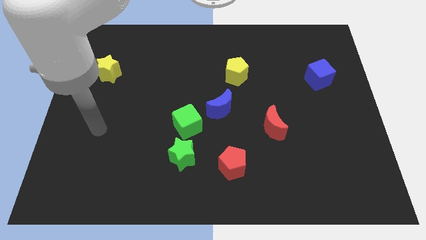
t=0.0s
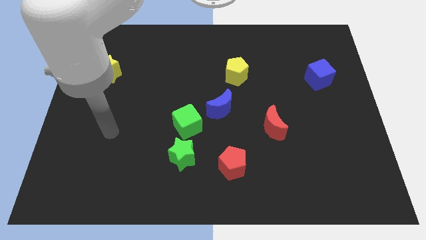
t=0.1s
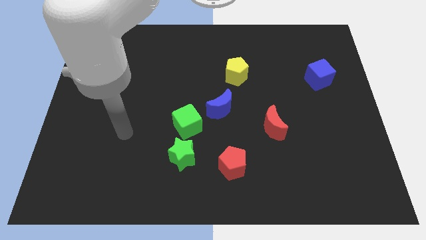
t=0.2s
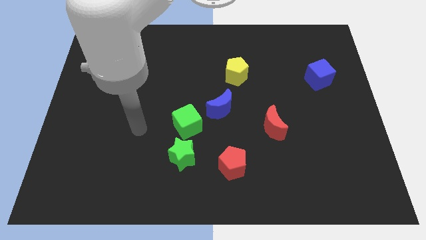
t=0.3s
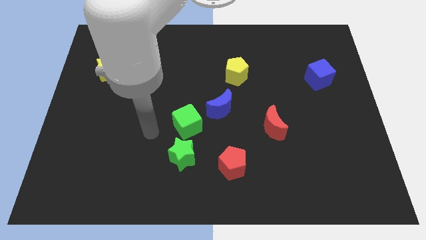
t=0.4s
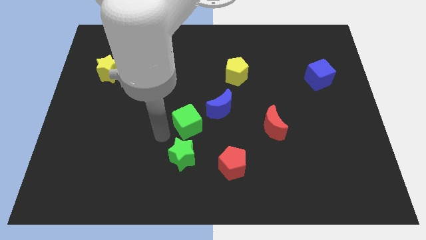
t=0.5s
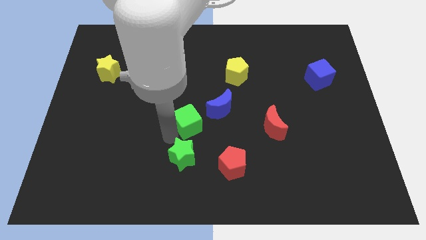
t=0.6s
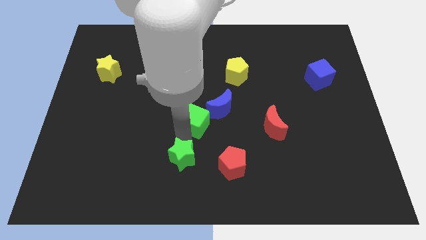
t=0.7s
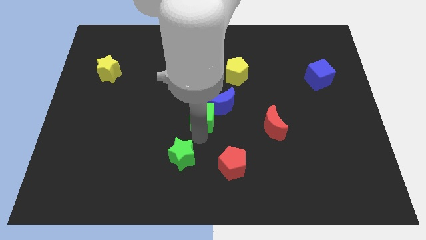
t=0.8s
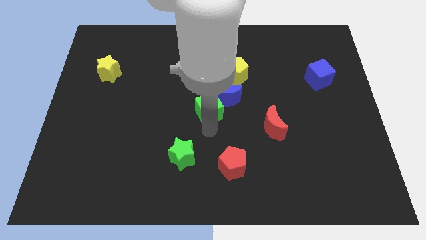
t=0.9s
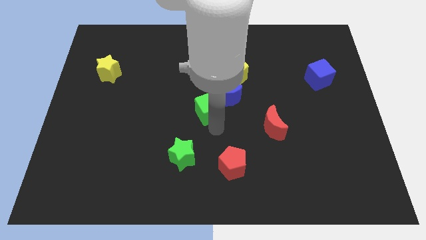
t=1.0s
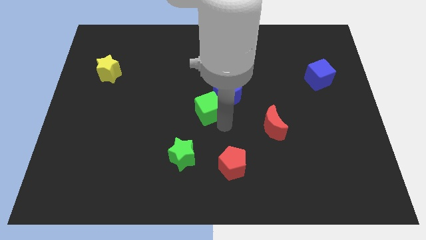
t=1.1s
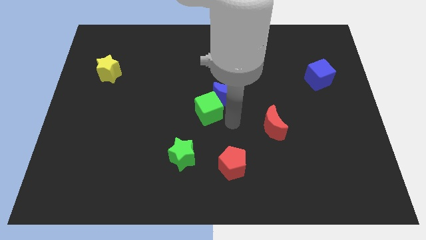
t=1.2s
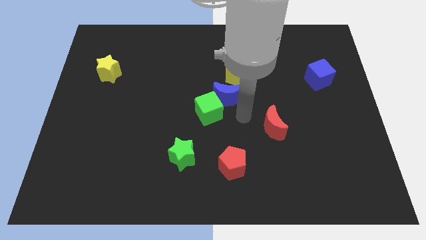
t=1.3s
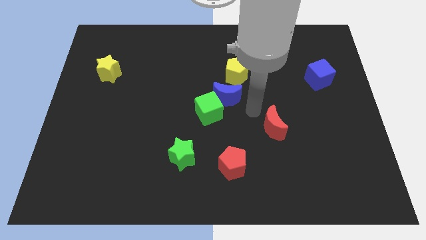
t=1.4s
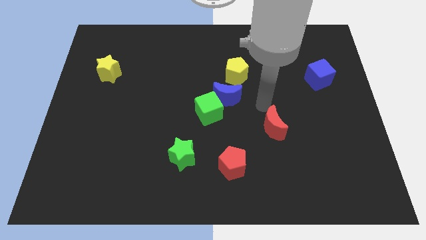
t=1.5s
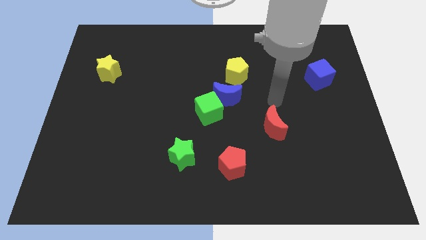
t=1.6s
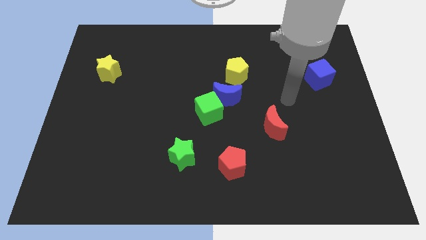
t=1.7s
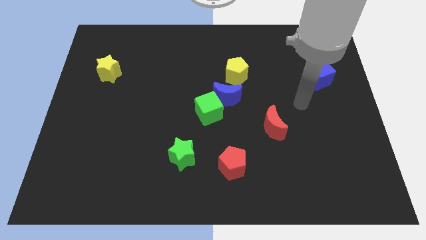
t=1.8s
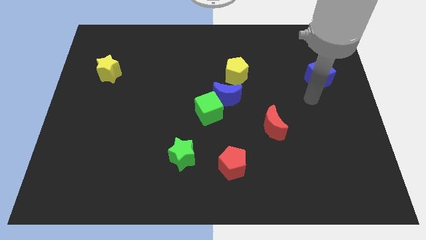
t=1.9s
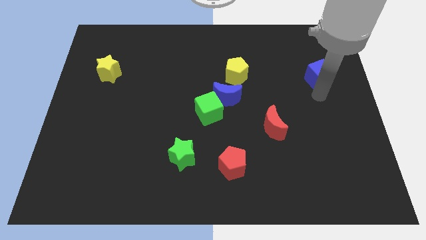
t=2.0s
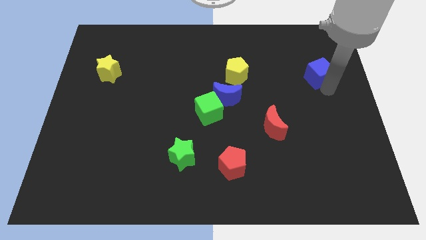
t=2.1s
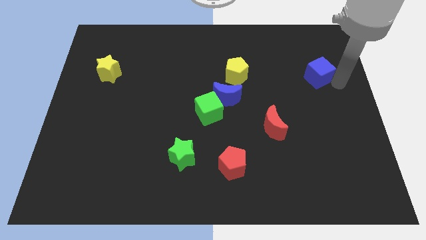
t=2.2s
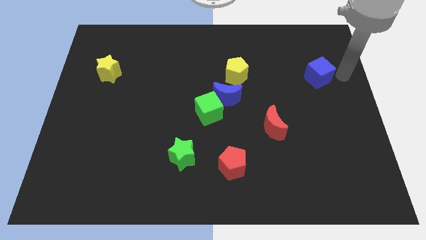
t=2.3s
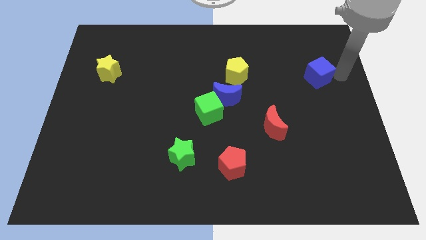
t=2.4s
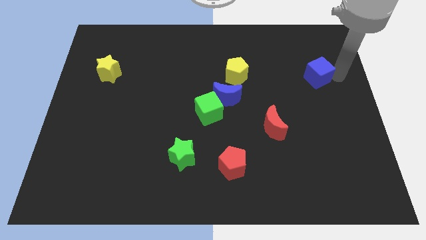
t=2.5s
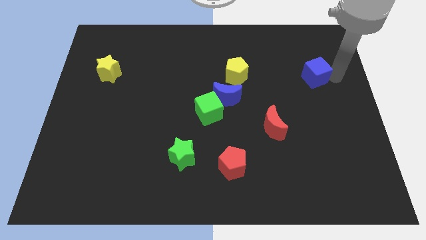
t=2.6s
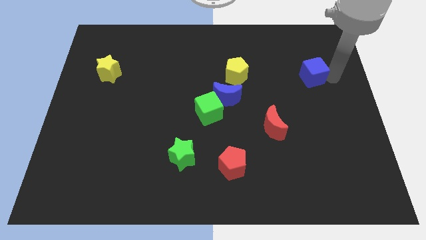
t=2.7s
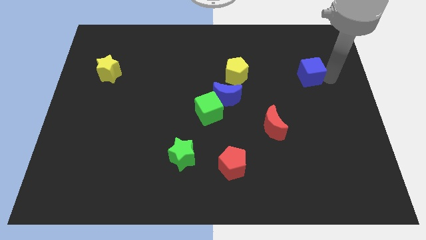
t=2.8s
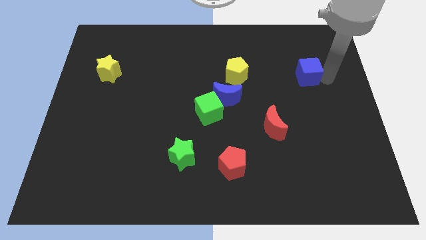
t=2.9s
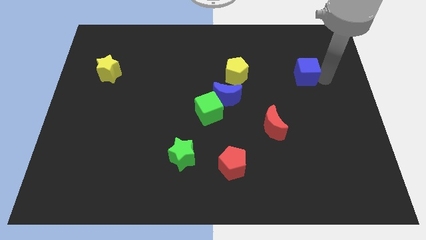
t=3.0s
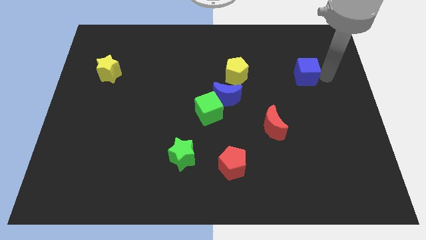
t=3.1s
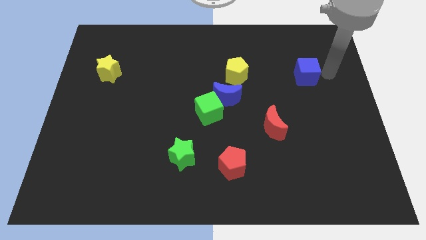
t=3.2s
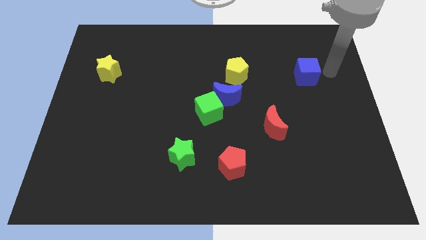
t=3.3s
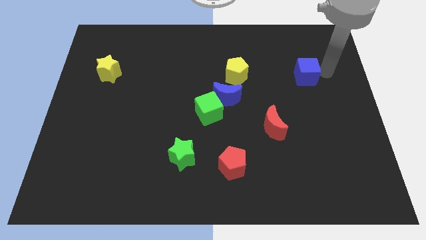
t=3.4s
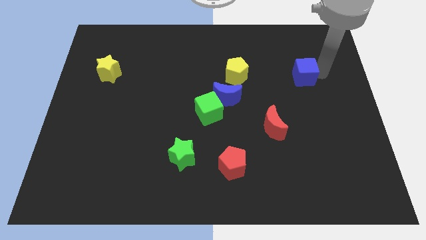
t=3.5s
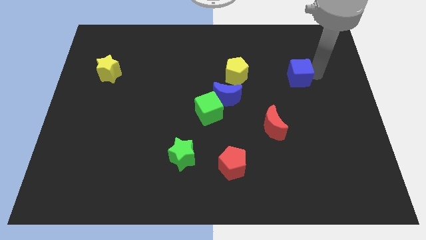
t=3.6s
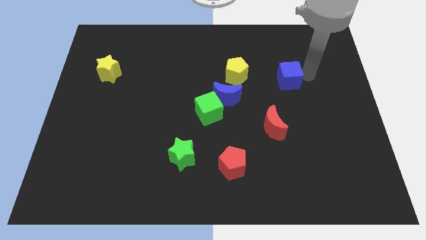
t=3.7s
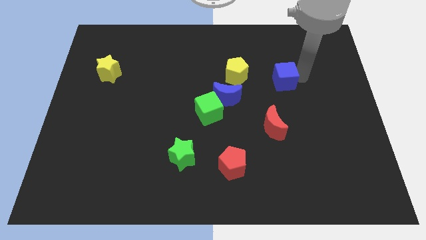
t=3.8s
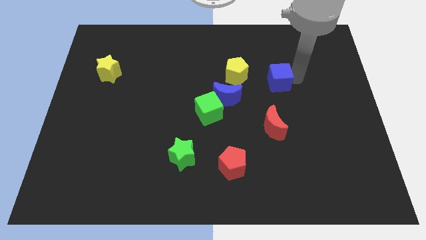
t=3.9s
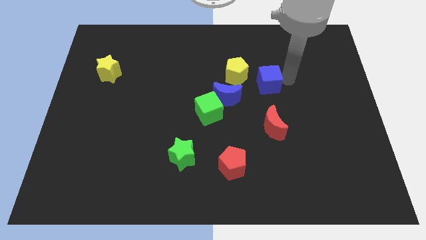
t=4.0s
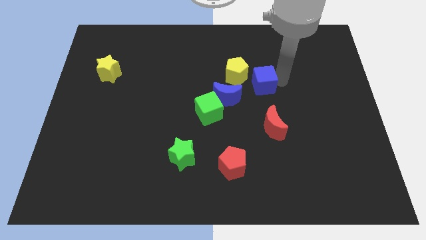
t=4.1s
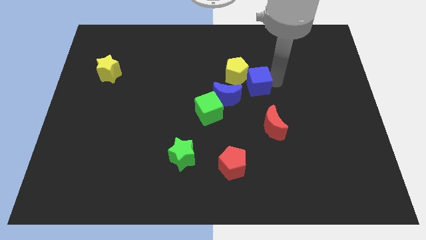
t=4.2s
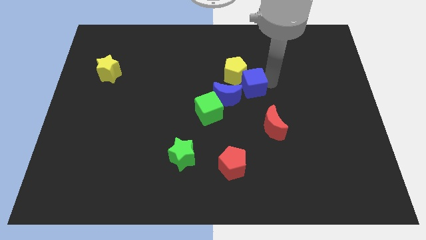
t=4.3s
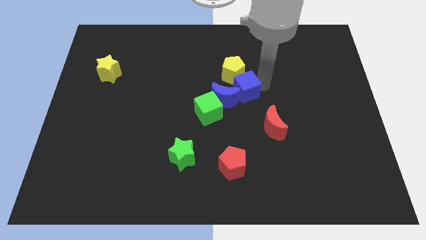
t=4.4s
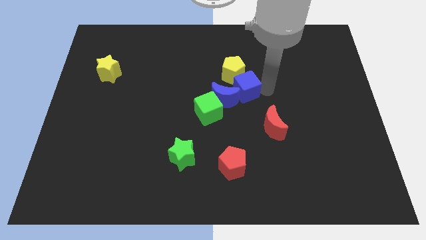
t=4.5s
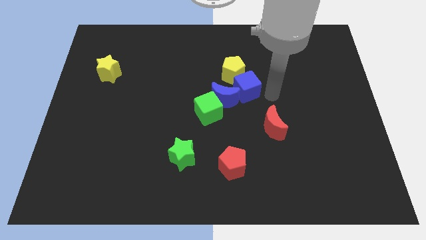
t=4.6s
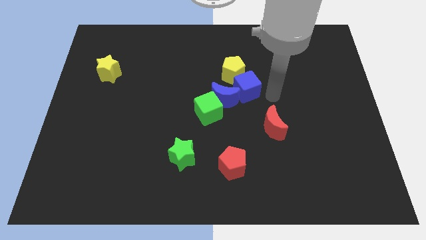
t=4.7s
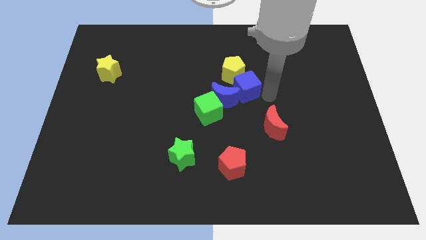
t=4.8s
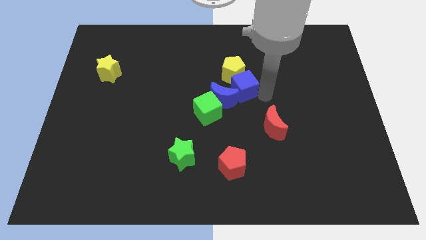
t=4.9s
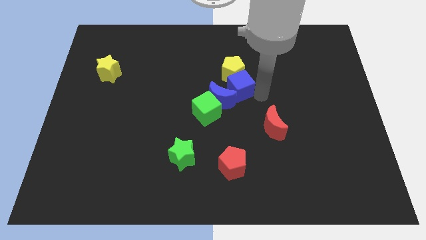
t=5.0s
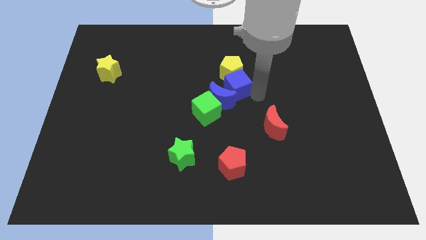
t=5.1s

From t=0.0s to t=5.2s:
move the blue cube to the left

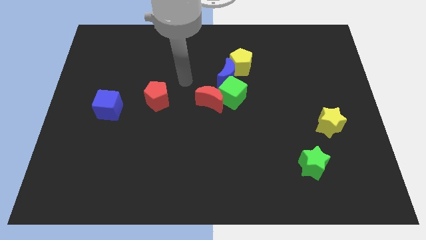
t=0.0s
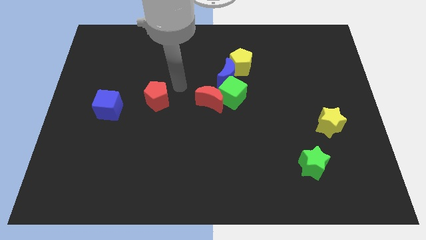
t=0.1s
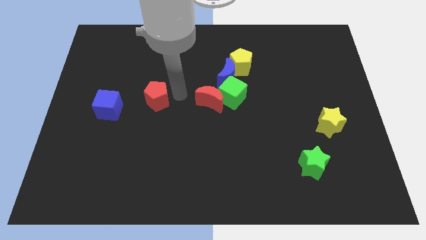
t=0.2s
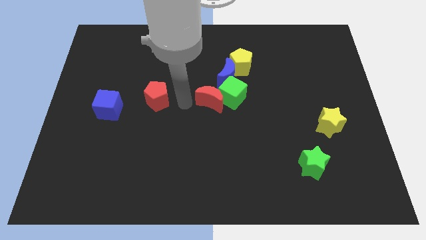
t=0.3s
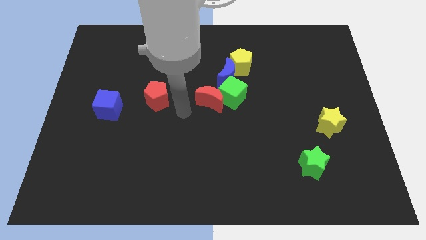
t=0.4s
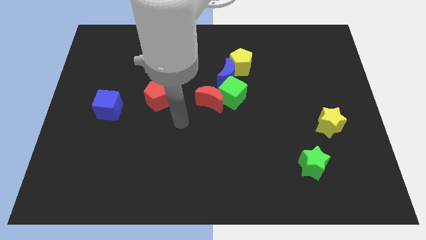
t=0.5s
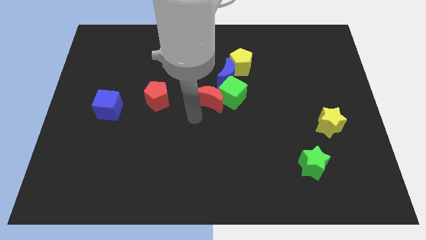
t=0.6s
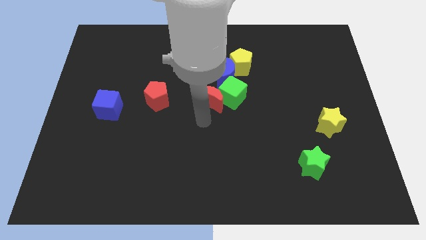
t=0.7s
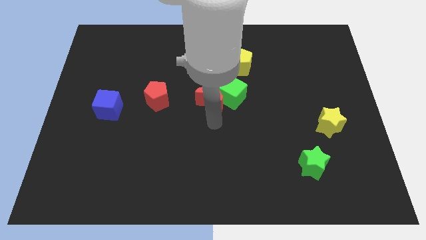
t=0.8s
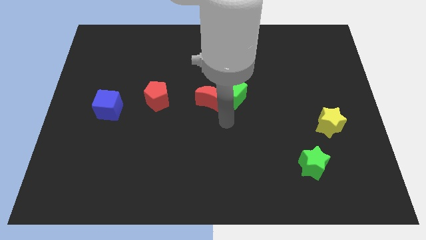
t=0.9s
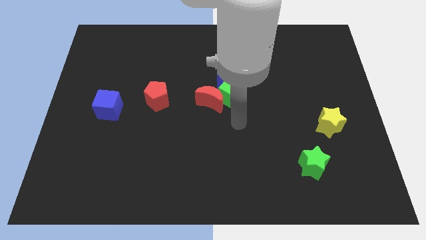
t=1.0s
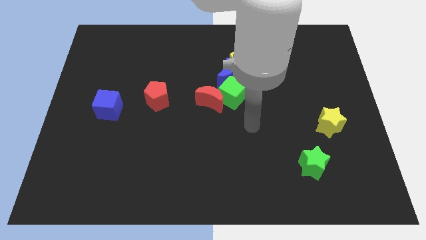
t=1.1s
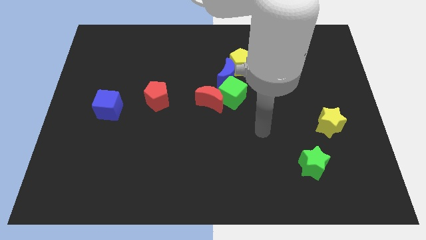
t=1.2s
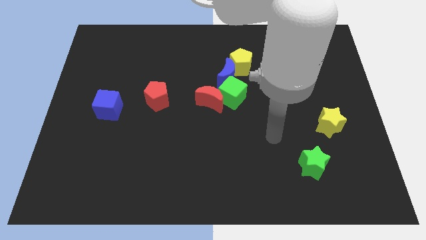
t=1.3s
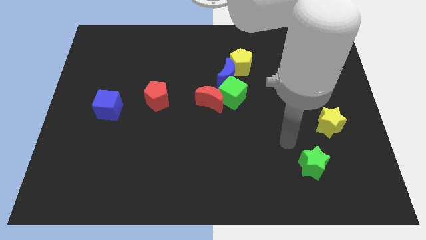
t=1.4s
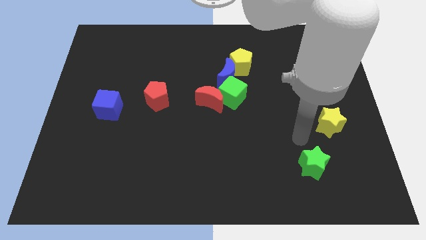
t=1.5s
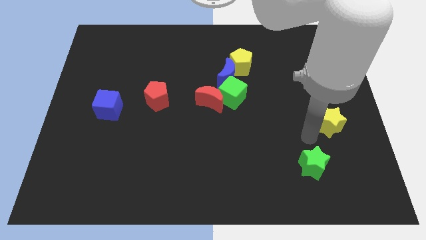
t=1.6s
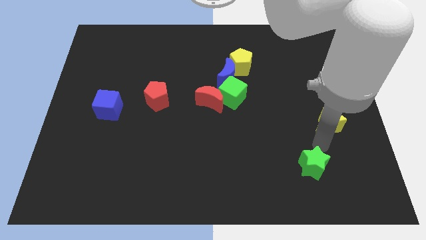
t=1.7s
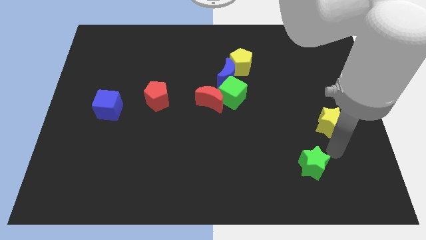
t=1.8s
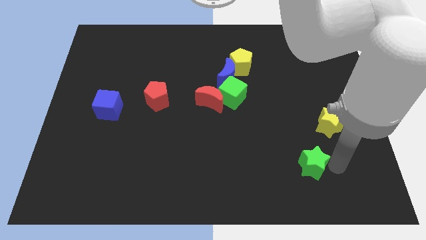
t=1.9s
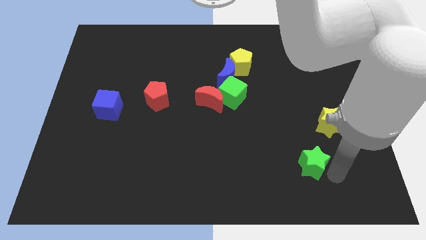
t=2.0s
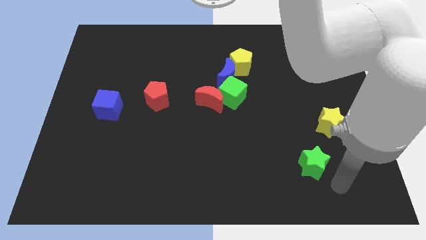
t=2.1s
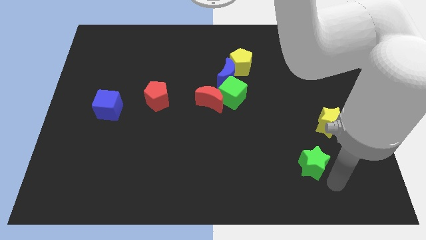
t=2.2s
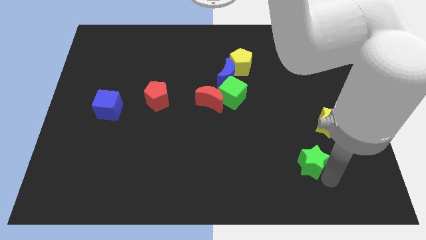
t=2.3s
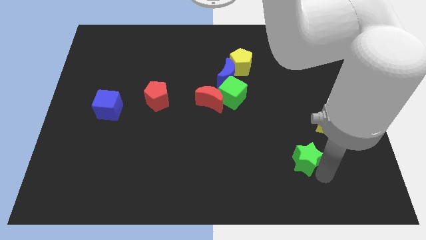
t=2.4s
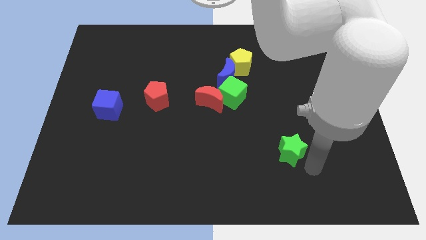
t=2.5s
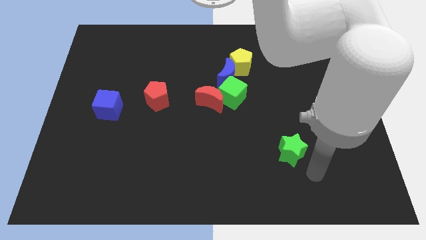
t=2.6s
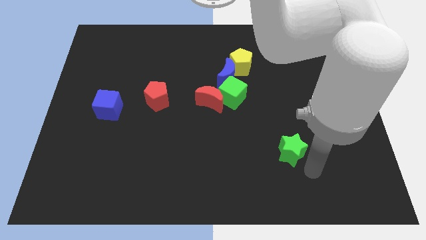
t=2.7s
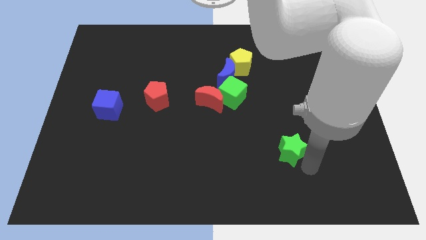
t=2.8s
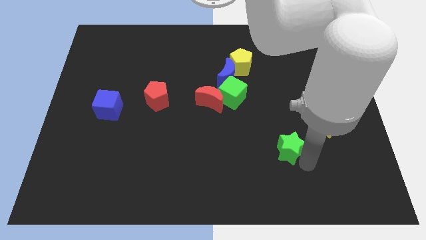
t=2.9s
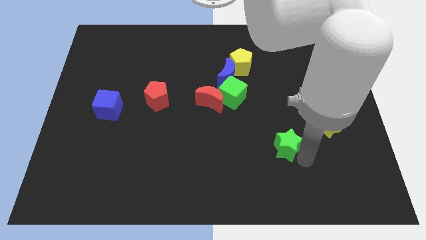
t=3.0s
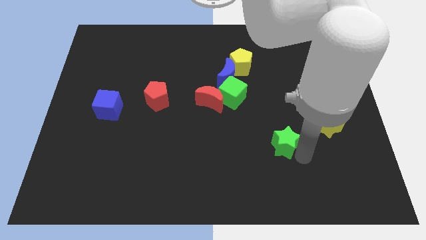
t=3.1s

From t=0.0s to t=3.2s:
push the green star up and left a little bit
